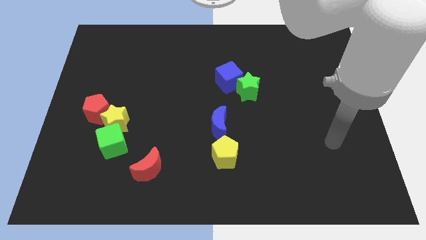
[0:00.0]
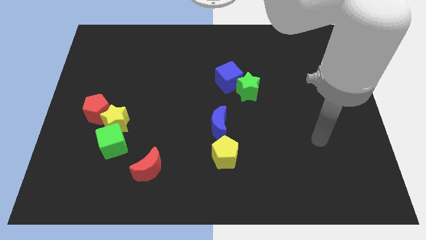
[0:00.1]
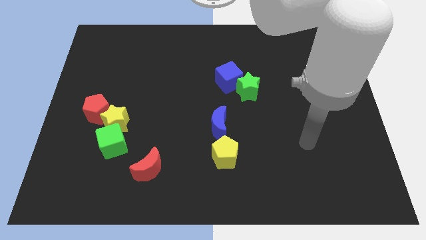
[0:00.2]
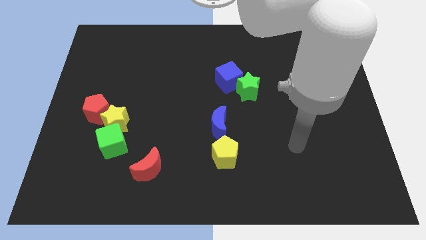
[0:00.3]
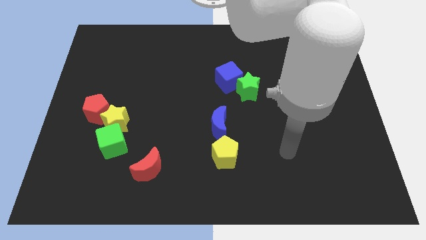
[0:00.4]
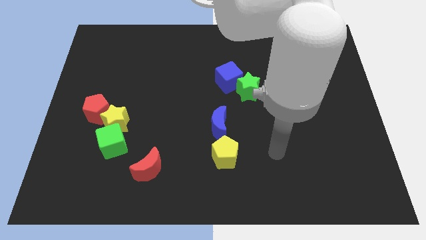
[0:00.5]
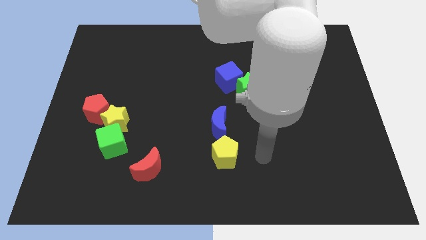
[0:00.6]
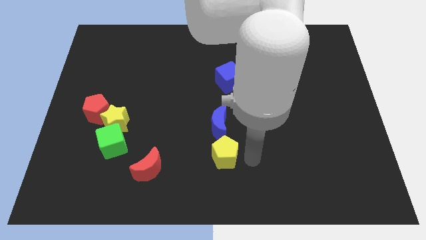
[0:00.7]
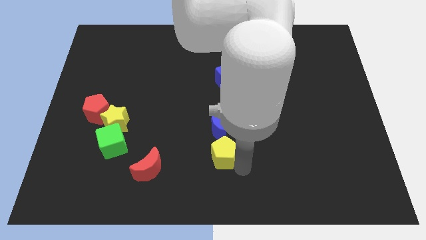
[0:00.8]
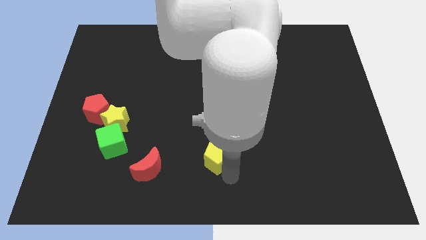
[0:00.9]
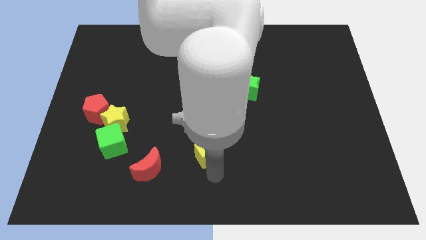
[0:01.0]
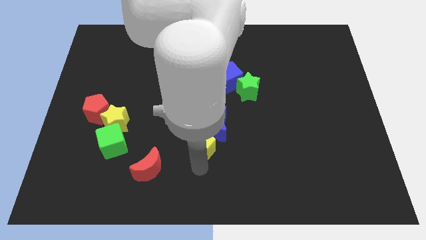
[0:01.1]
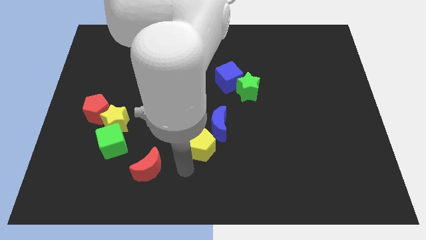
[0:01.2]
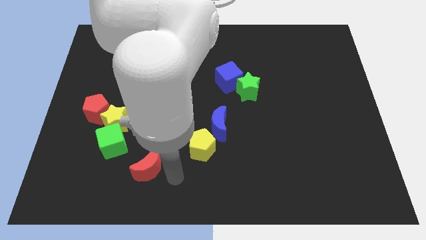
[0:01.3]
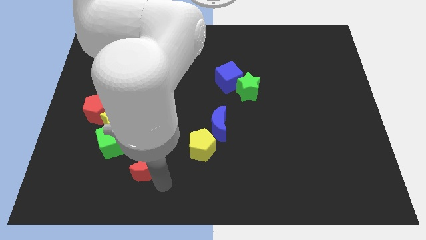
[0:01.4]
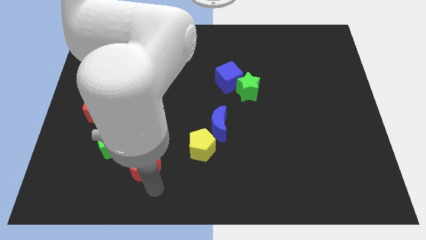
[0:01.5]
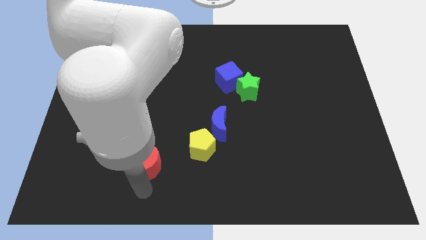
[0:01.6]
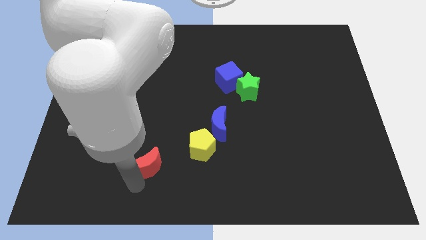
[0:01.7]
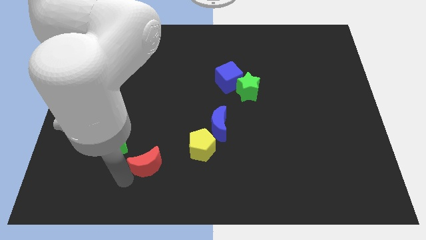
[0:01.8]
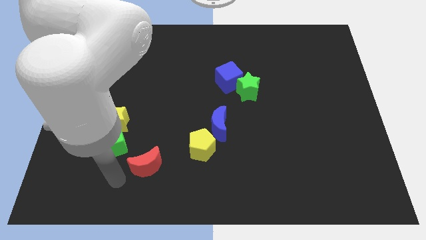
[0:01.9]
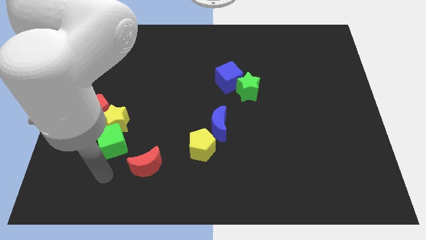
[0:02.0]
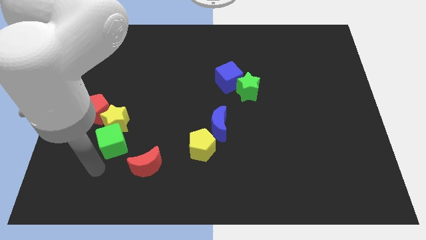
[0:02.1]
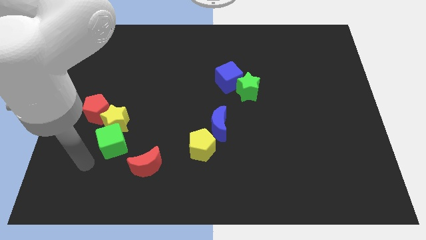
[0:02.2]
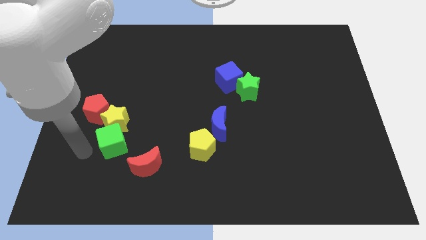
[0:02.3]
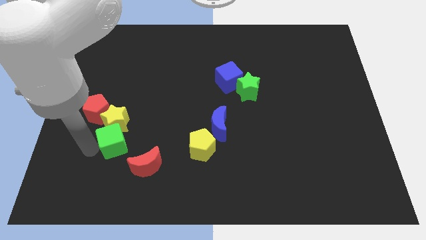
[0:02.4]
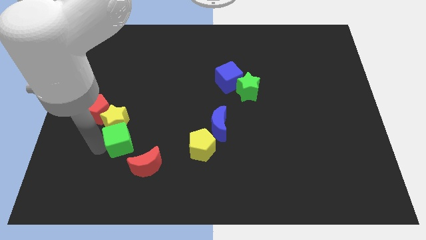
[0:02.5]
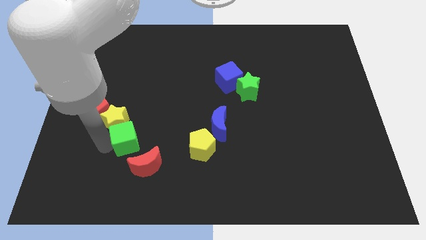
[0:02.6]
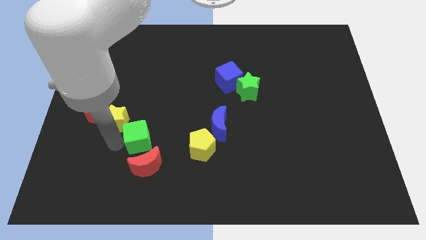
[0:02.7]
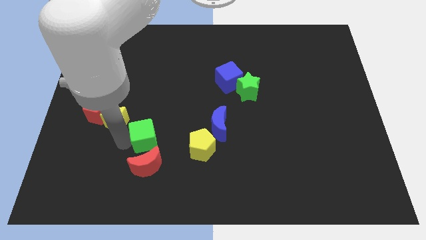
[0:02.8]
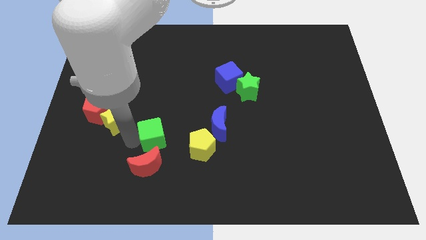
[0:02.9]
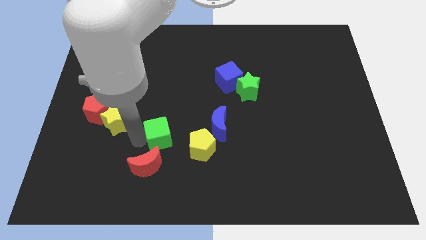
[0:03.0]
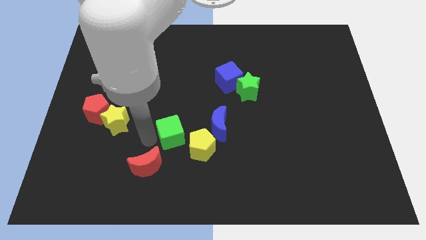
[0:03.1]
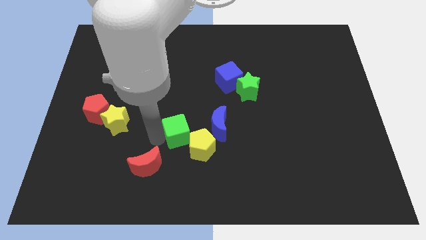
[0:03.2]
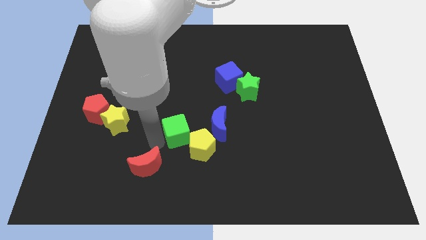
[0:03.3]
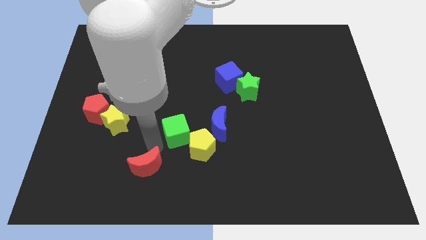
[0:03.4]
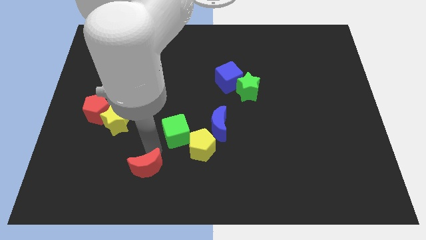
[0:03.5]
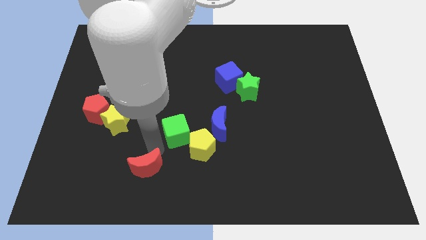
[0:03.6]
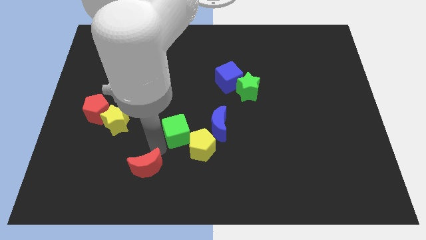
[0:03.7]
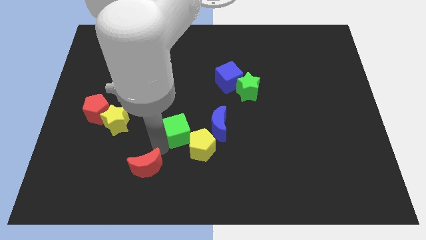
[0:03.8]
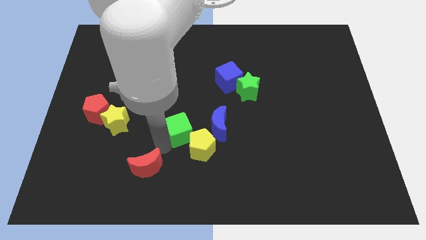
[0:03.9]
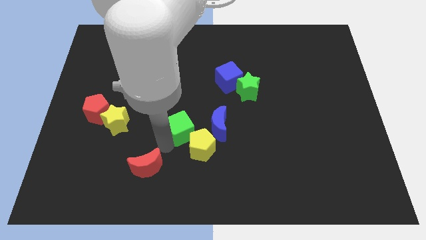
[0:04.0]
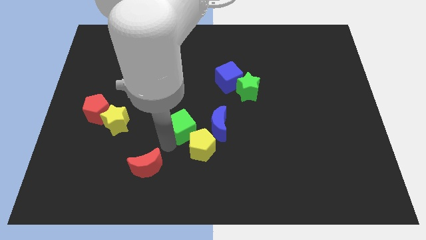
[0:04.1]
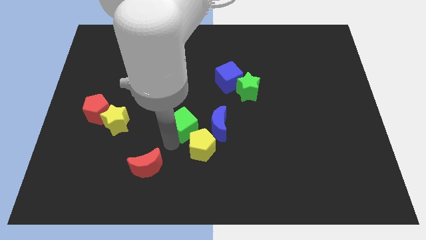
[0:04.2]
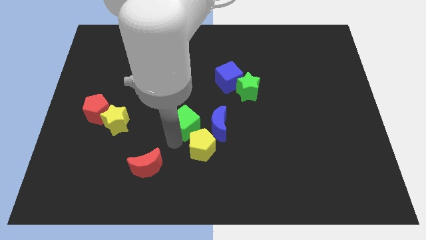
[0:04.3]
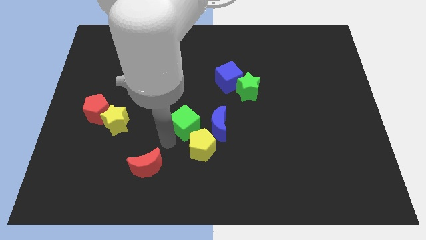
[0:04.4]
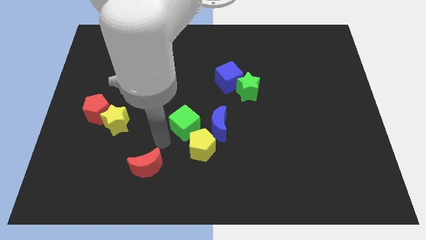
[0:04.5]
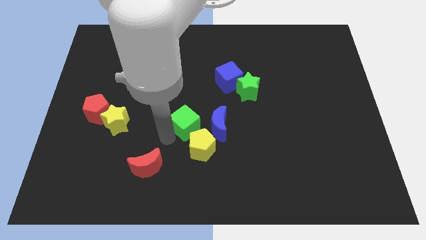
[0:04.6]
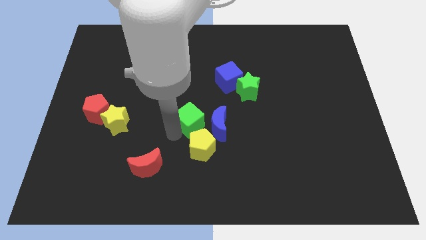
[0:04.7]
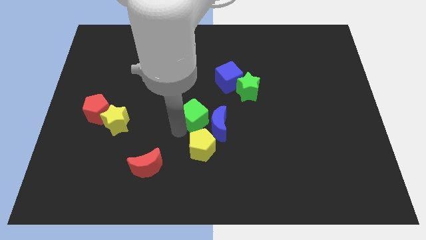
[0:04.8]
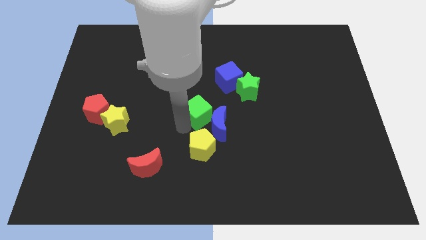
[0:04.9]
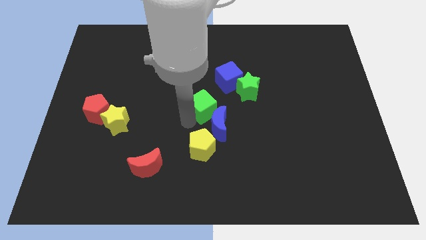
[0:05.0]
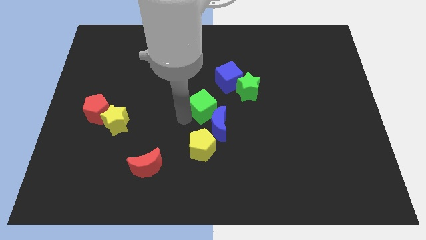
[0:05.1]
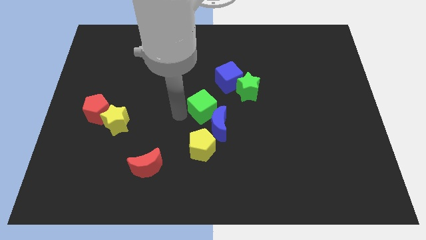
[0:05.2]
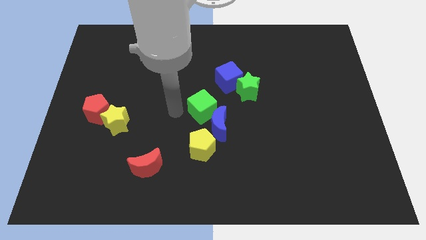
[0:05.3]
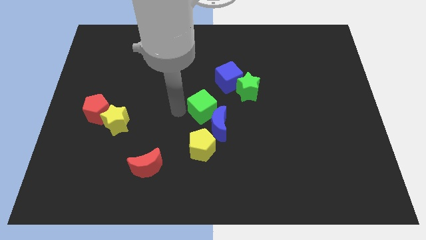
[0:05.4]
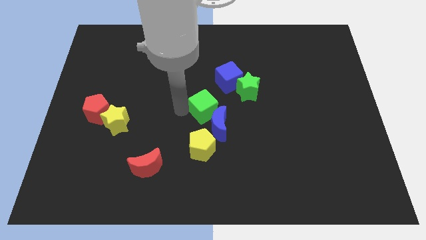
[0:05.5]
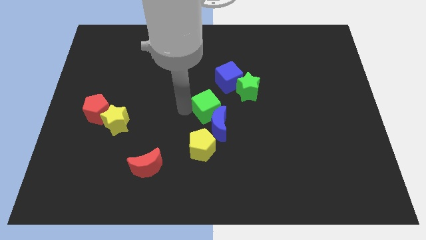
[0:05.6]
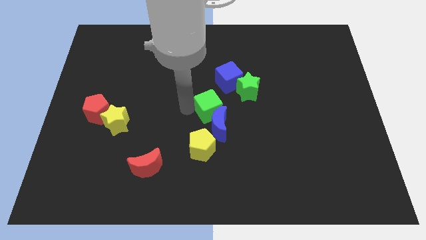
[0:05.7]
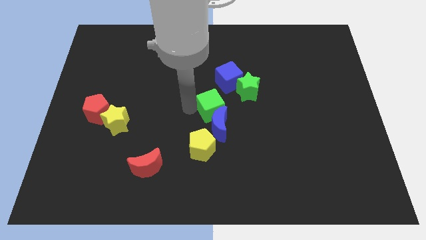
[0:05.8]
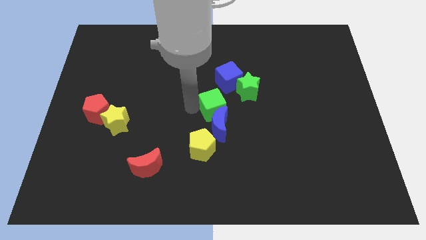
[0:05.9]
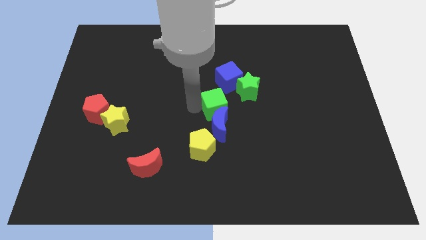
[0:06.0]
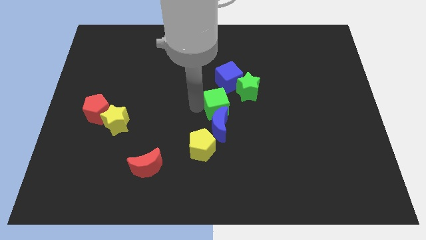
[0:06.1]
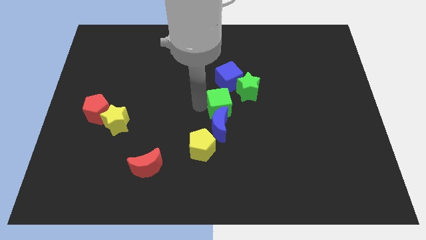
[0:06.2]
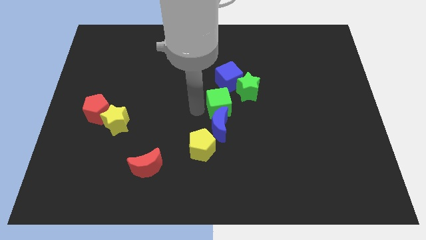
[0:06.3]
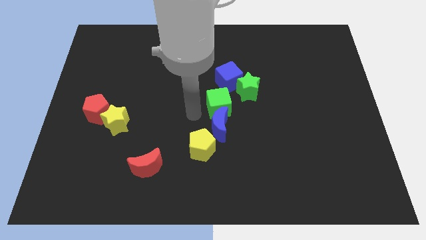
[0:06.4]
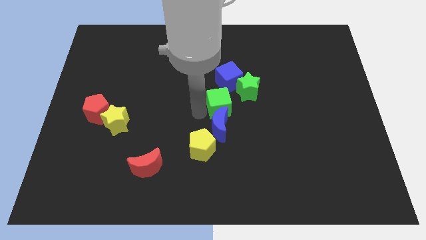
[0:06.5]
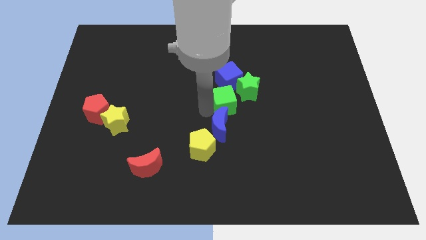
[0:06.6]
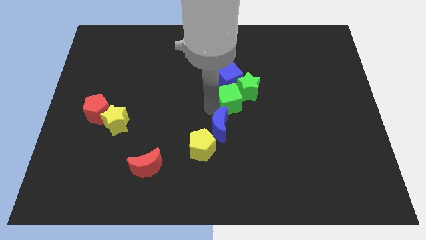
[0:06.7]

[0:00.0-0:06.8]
push the green cube to the green star

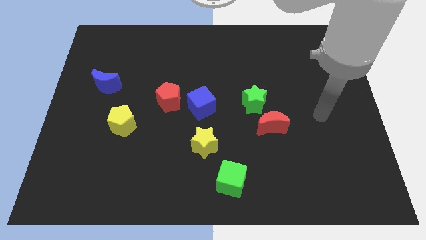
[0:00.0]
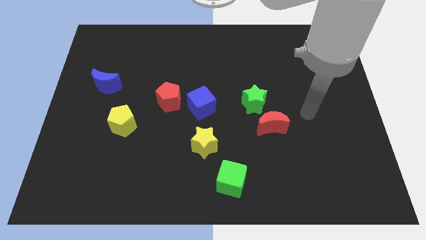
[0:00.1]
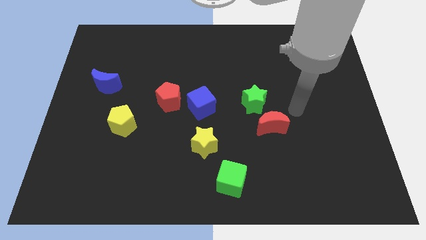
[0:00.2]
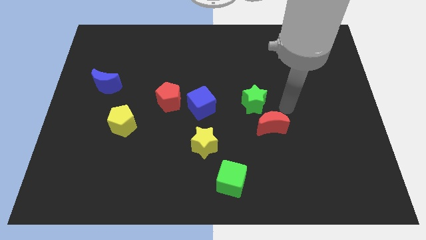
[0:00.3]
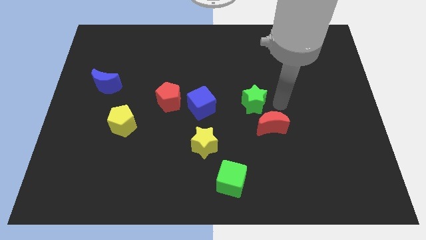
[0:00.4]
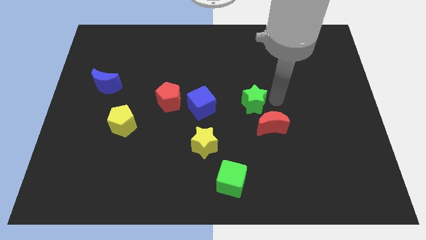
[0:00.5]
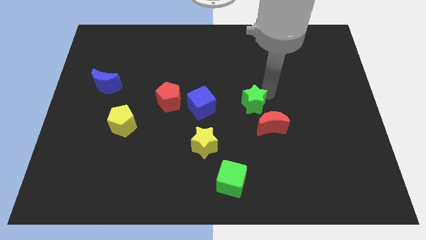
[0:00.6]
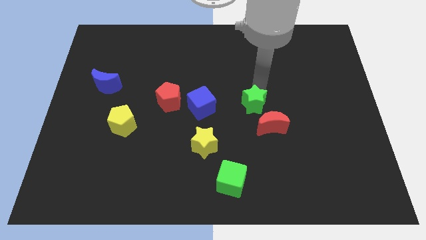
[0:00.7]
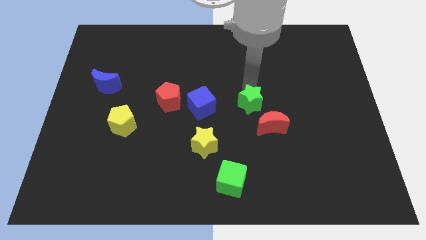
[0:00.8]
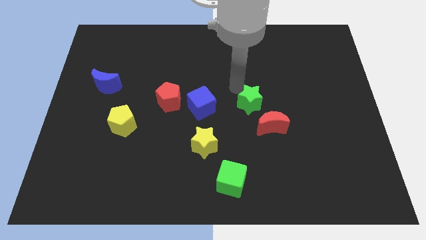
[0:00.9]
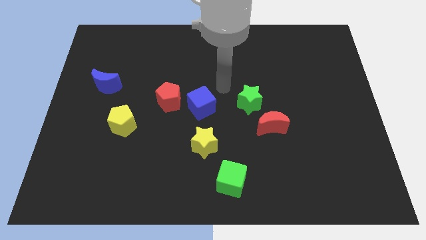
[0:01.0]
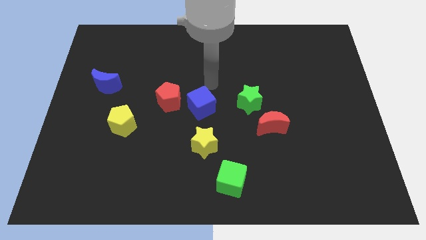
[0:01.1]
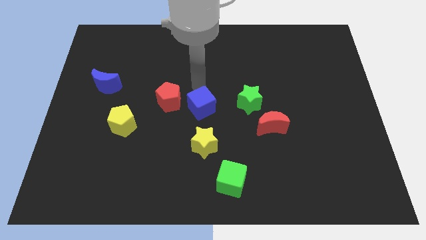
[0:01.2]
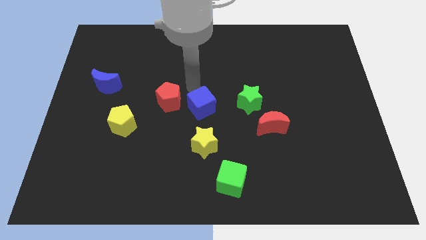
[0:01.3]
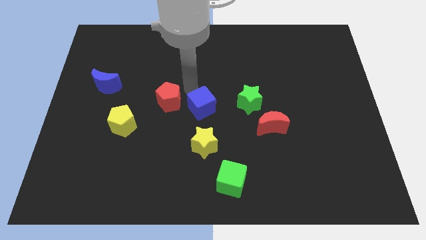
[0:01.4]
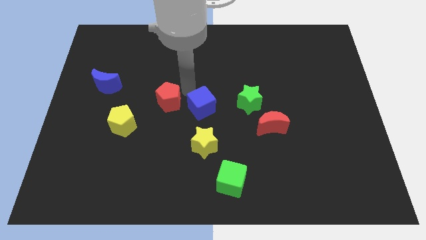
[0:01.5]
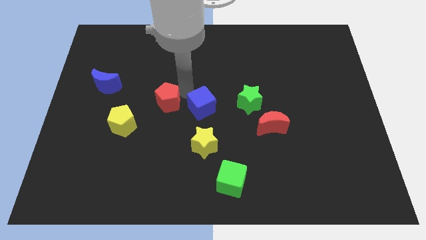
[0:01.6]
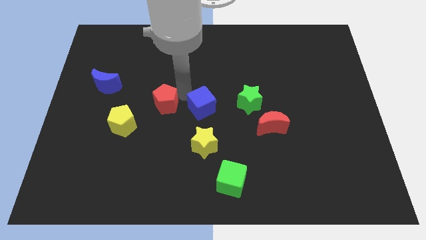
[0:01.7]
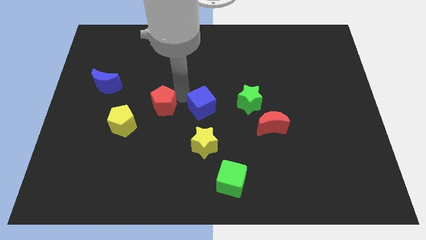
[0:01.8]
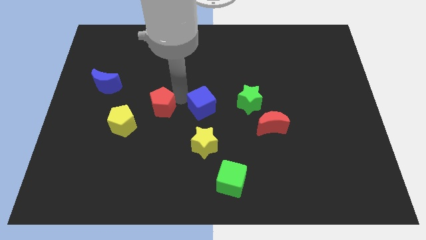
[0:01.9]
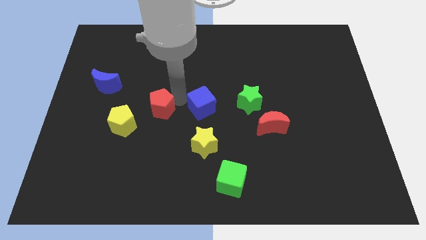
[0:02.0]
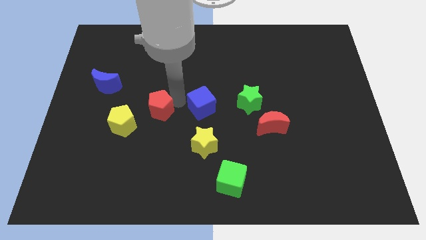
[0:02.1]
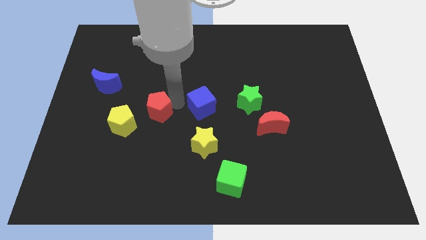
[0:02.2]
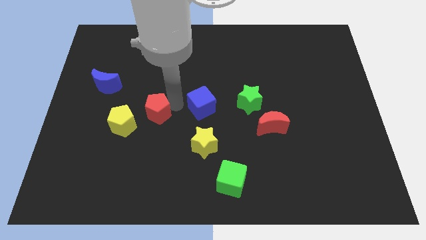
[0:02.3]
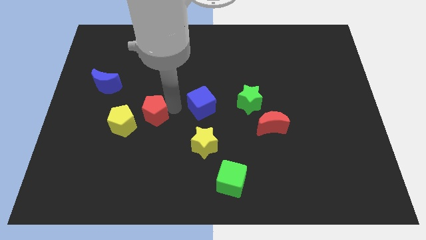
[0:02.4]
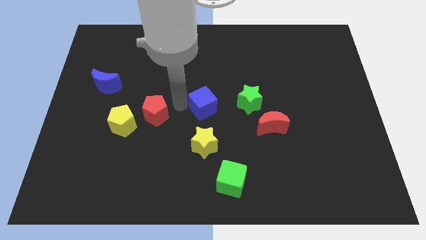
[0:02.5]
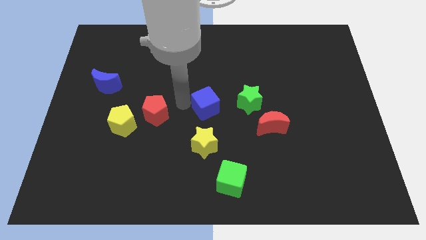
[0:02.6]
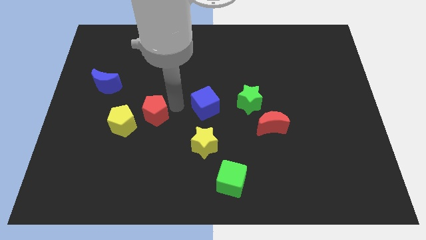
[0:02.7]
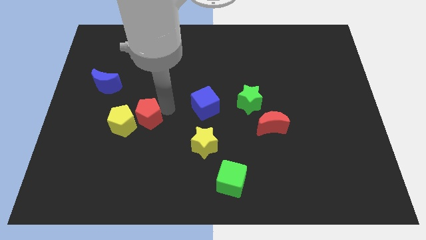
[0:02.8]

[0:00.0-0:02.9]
put the red pentagon to the yellow pentagon
